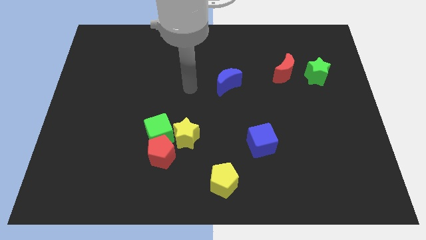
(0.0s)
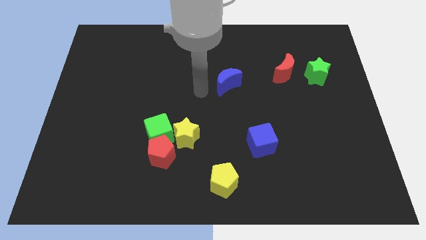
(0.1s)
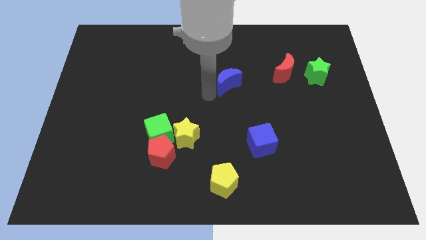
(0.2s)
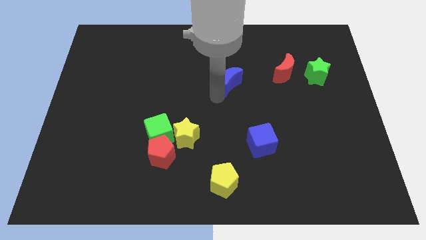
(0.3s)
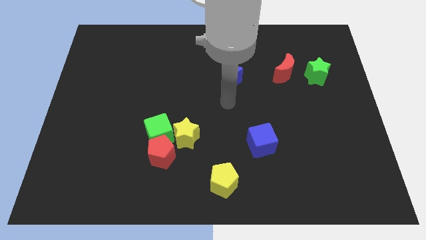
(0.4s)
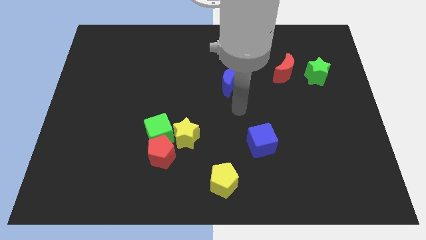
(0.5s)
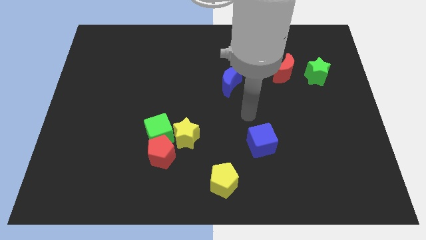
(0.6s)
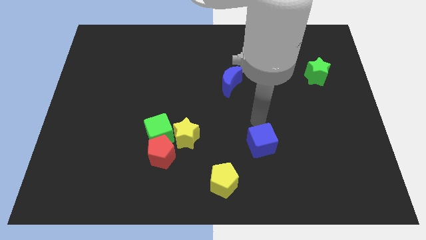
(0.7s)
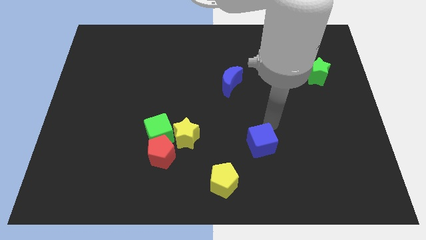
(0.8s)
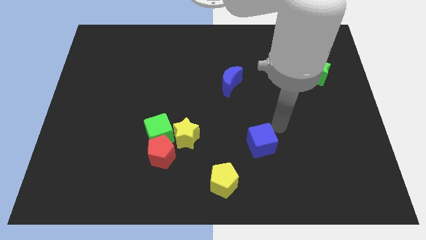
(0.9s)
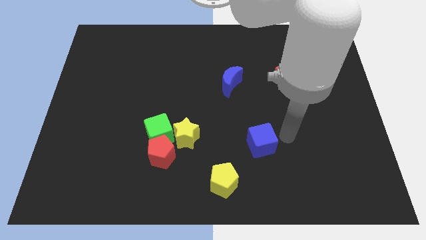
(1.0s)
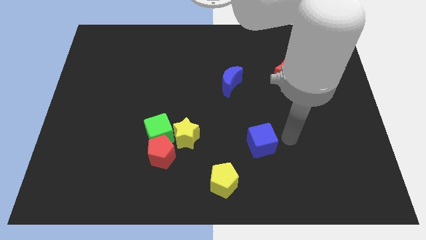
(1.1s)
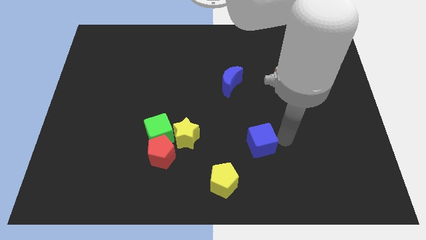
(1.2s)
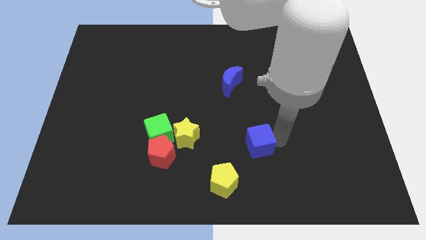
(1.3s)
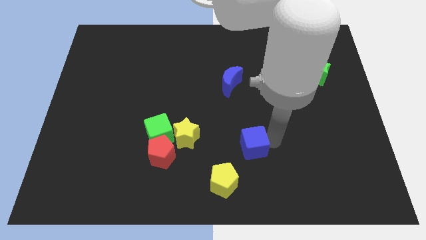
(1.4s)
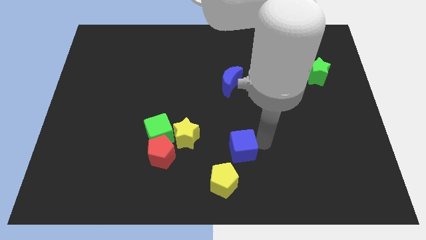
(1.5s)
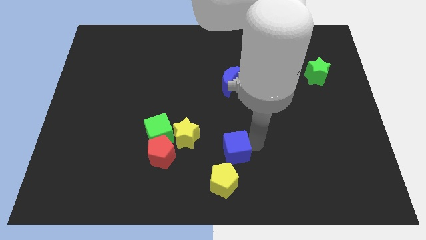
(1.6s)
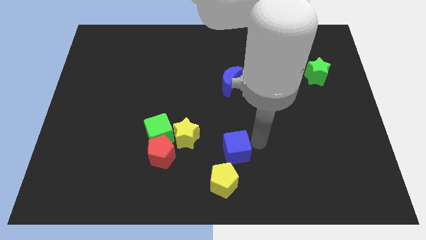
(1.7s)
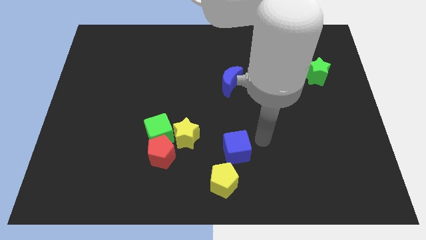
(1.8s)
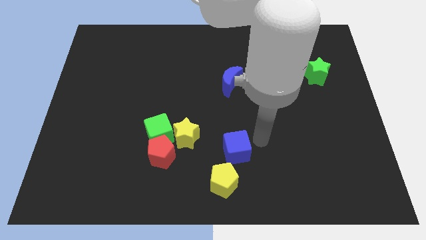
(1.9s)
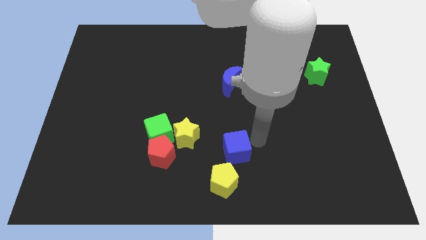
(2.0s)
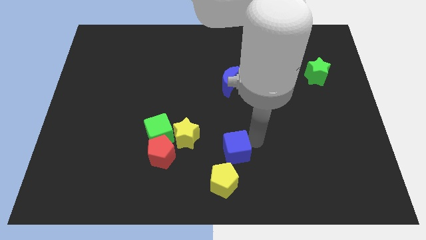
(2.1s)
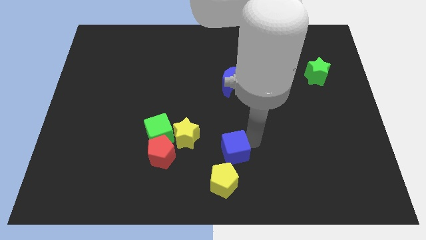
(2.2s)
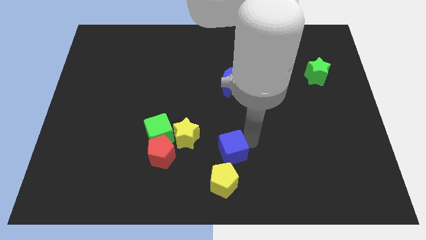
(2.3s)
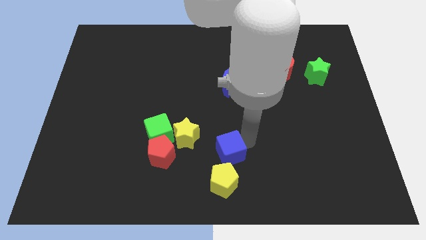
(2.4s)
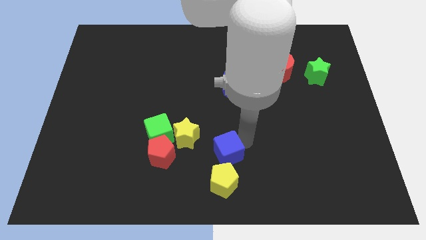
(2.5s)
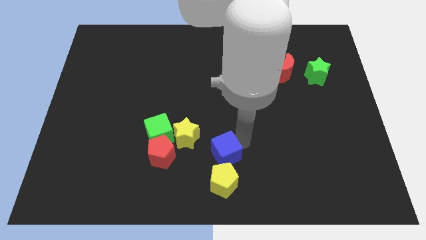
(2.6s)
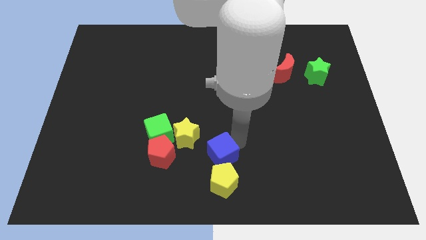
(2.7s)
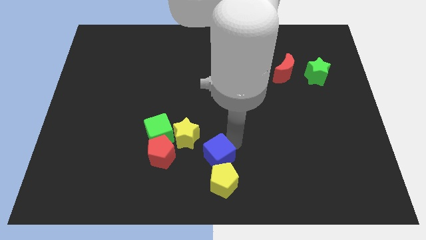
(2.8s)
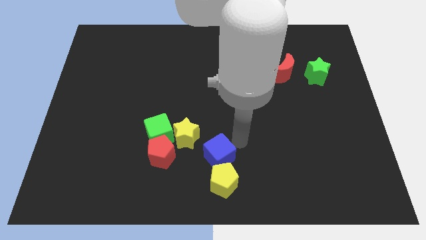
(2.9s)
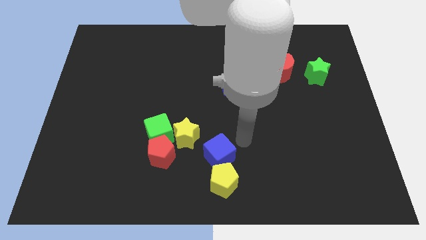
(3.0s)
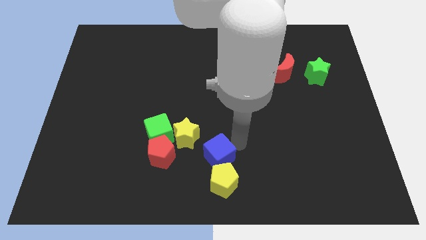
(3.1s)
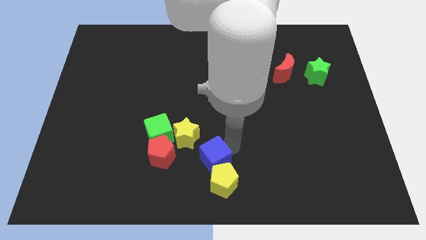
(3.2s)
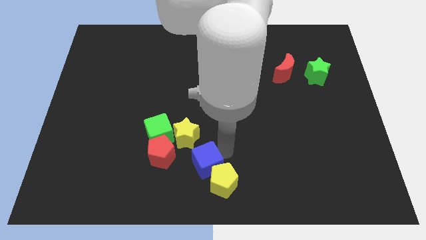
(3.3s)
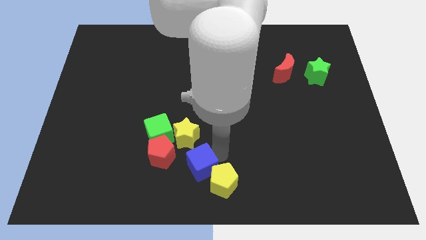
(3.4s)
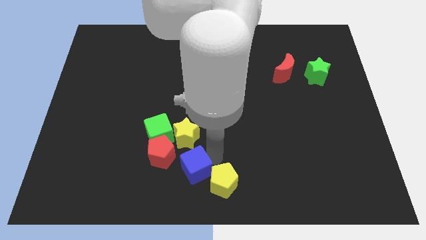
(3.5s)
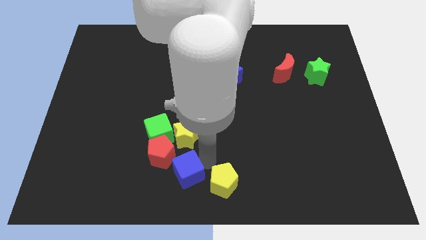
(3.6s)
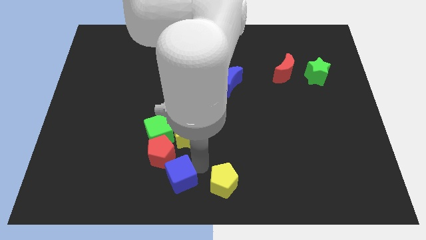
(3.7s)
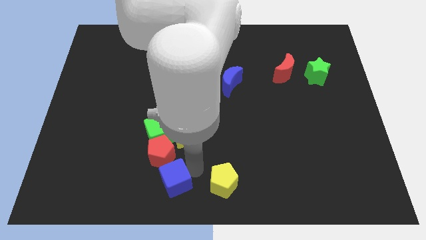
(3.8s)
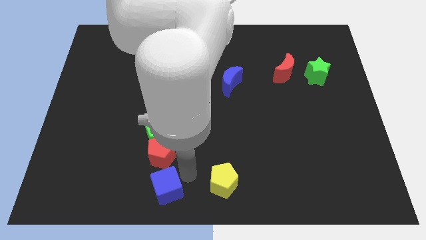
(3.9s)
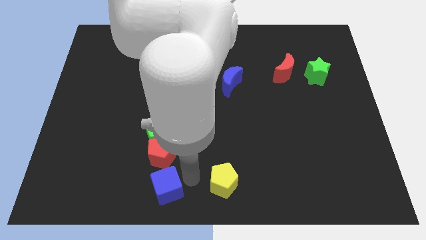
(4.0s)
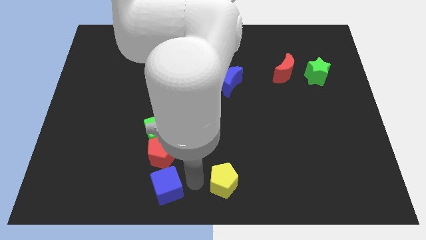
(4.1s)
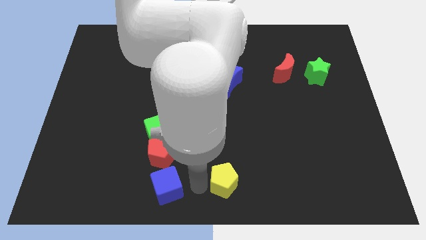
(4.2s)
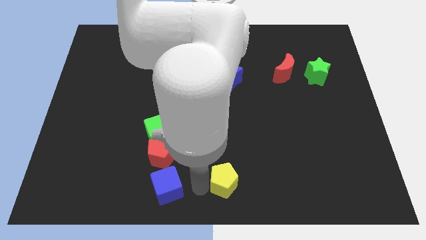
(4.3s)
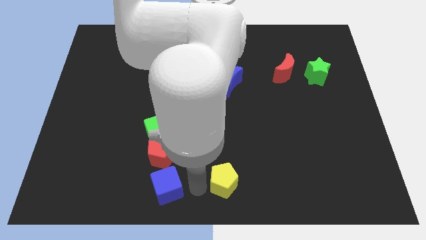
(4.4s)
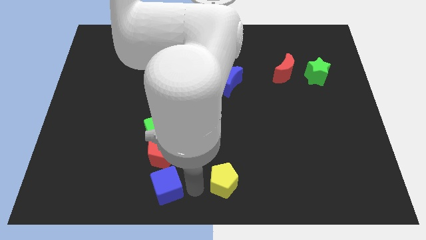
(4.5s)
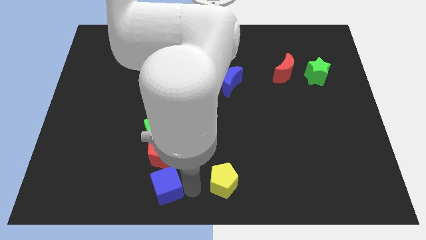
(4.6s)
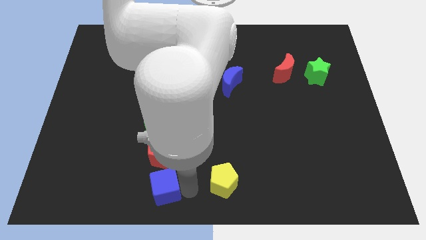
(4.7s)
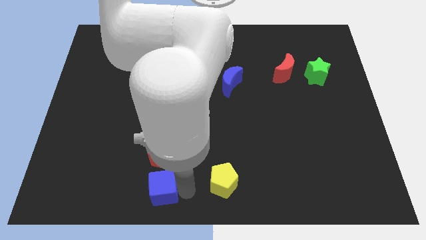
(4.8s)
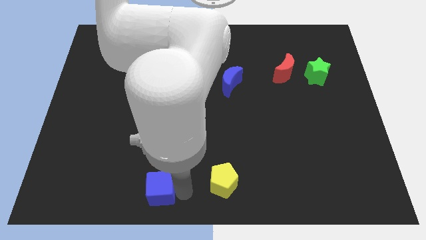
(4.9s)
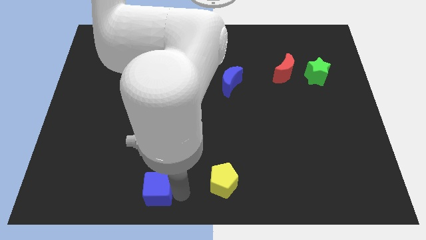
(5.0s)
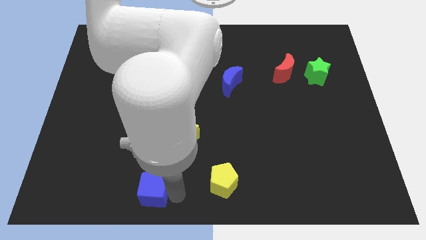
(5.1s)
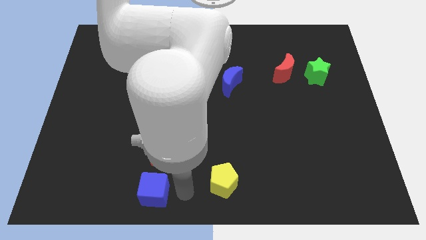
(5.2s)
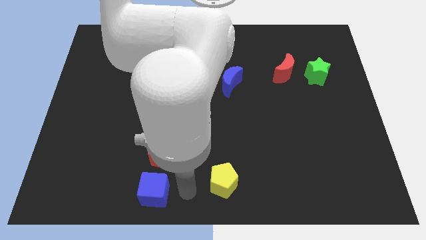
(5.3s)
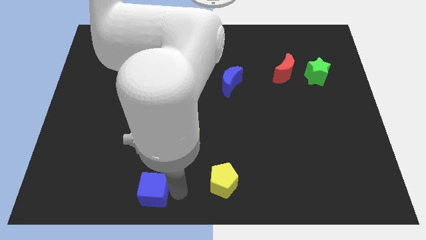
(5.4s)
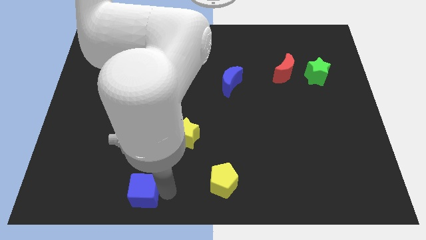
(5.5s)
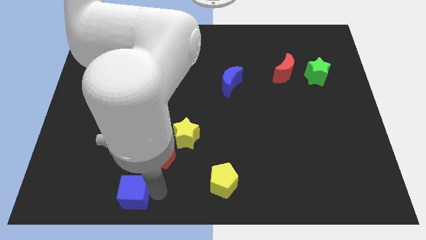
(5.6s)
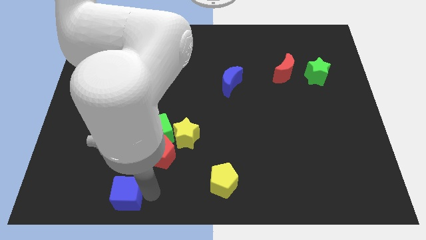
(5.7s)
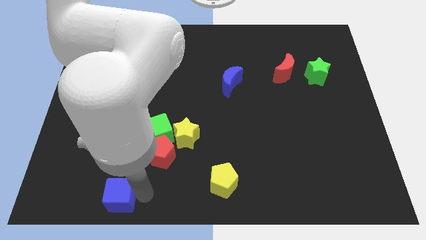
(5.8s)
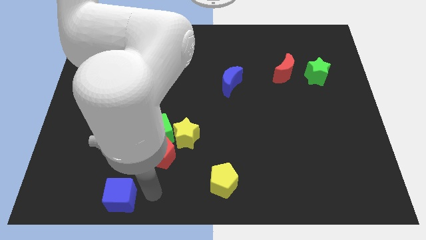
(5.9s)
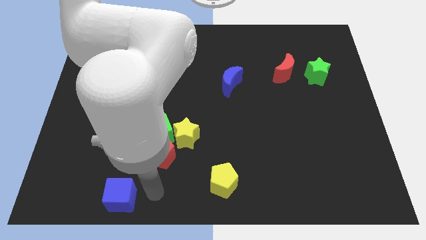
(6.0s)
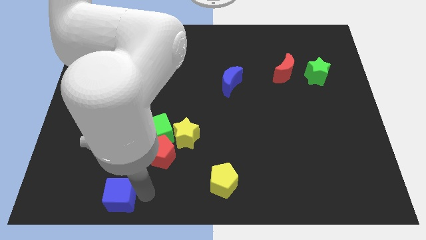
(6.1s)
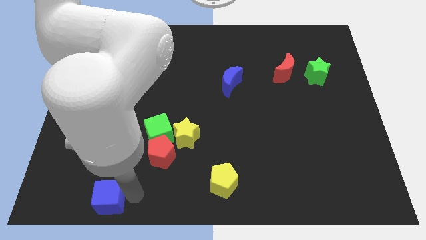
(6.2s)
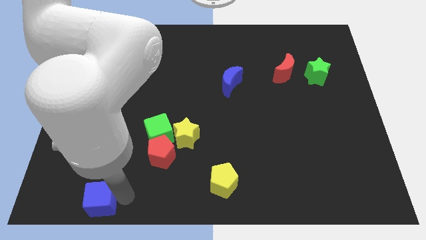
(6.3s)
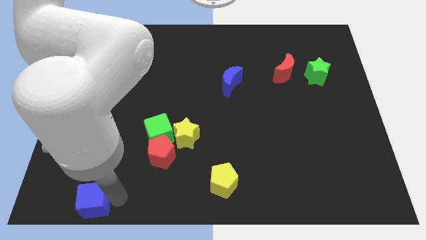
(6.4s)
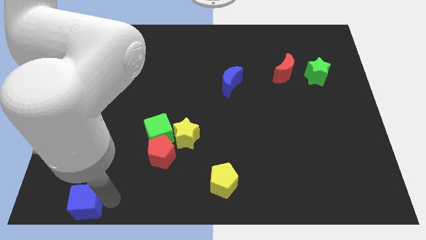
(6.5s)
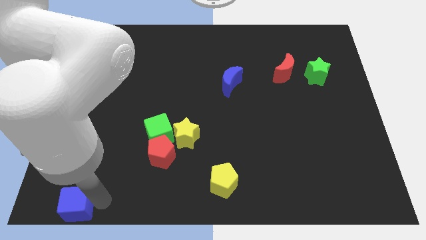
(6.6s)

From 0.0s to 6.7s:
put the blue cube to the lower left corner
